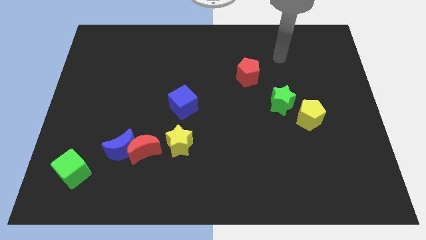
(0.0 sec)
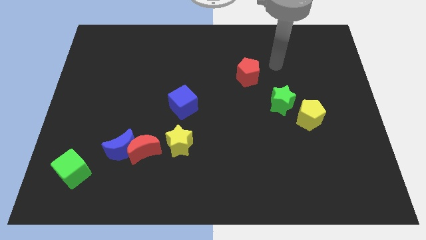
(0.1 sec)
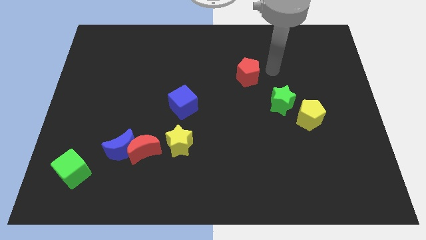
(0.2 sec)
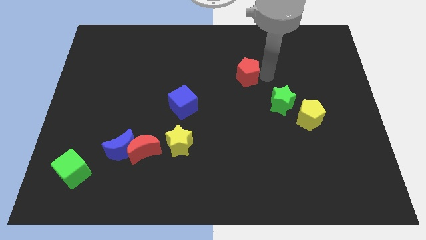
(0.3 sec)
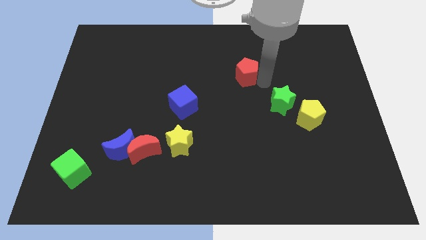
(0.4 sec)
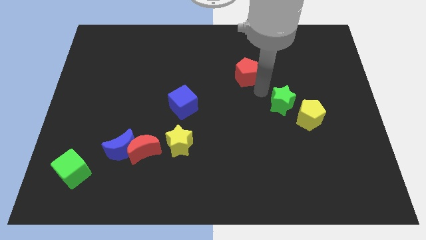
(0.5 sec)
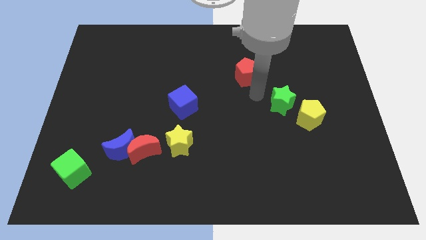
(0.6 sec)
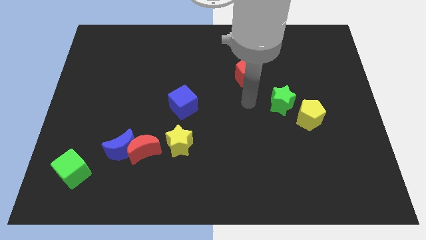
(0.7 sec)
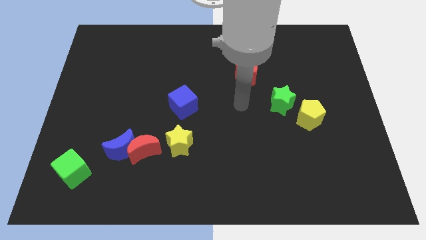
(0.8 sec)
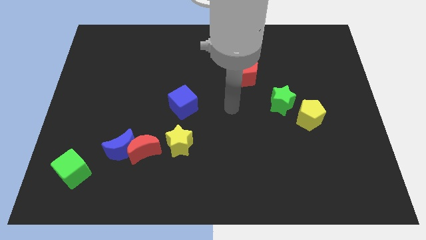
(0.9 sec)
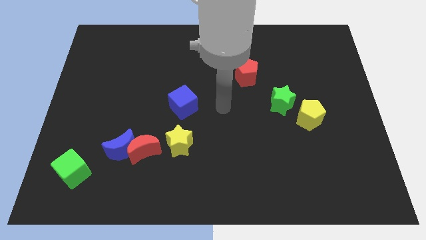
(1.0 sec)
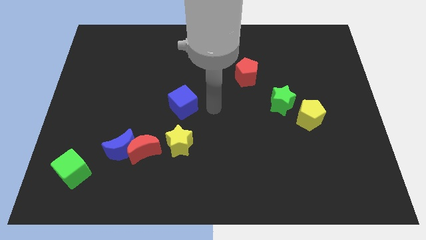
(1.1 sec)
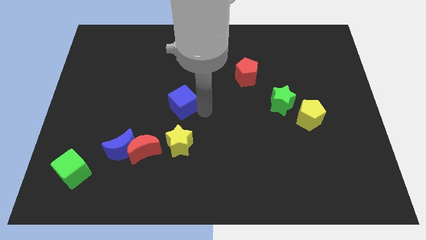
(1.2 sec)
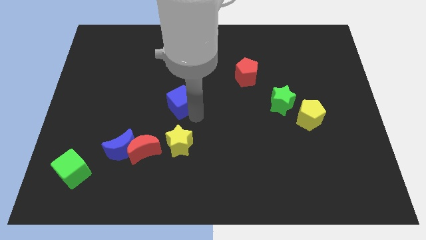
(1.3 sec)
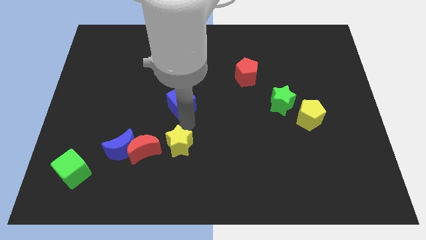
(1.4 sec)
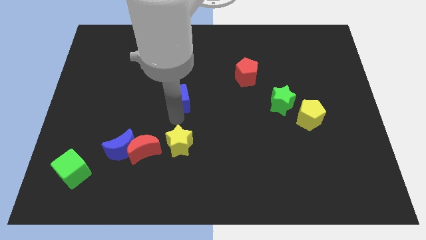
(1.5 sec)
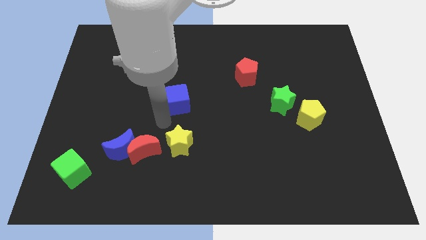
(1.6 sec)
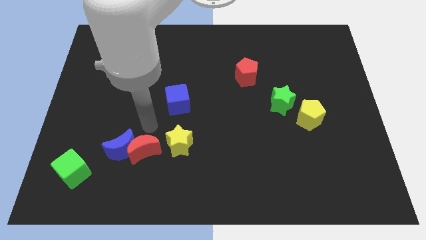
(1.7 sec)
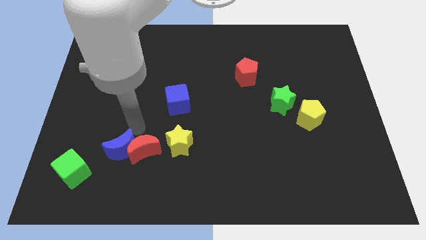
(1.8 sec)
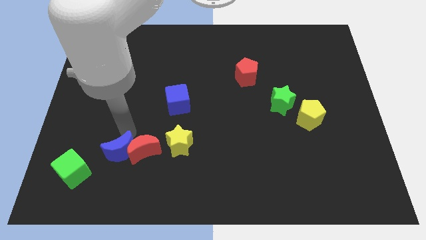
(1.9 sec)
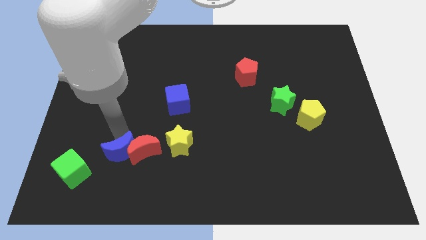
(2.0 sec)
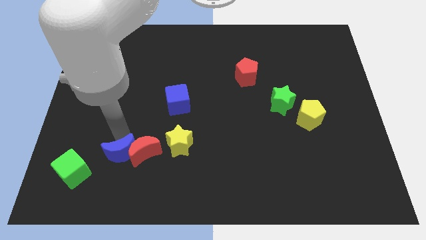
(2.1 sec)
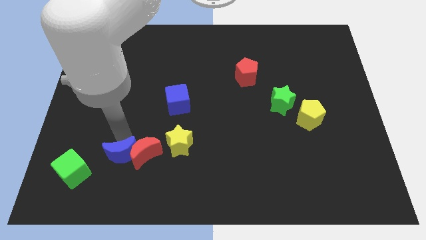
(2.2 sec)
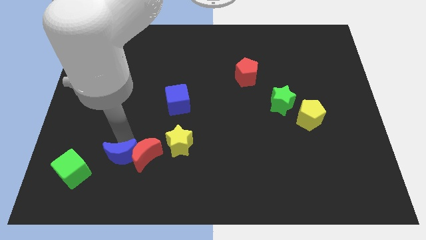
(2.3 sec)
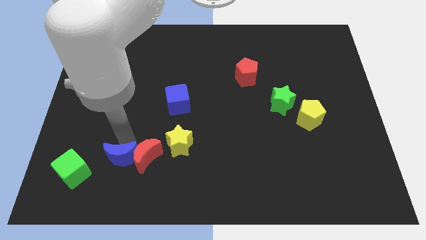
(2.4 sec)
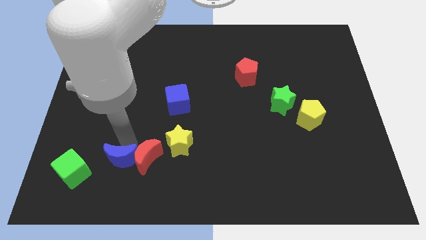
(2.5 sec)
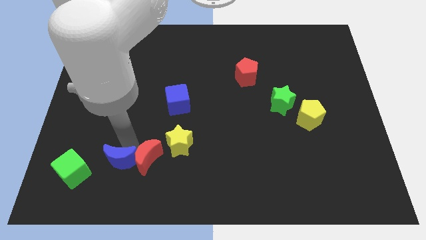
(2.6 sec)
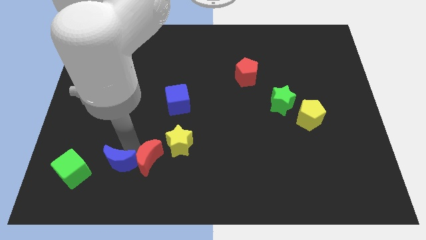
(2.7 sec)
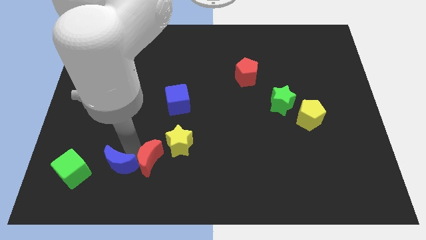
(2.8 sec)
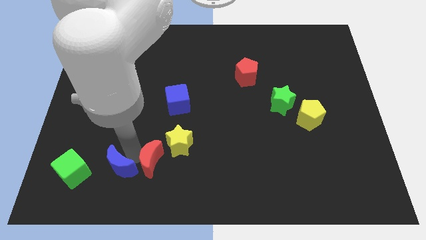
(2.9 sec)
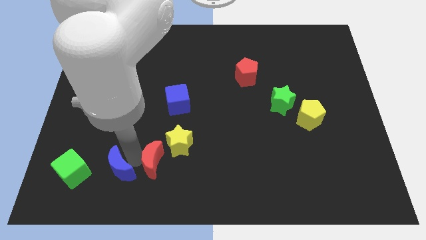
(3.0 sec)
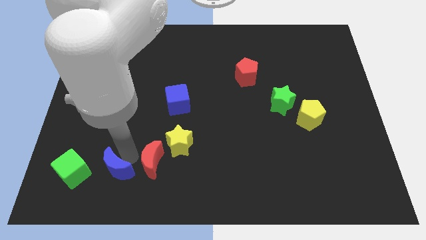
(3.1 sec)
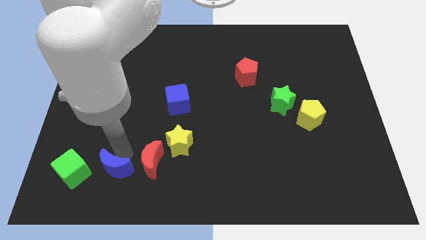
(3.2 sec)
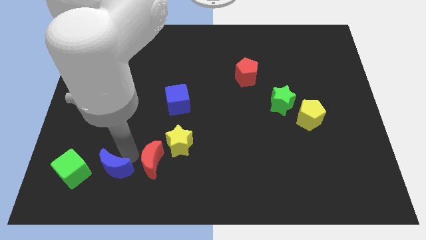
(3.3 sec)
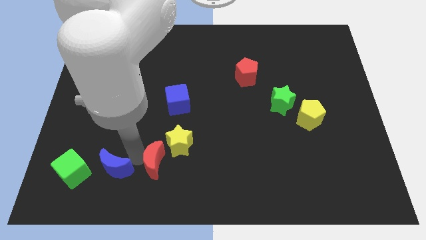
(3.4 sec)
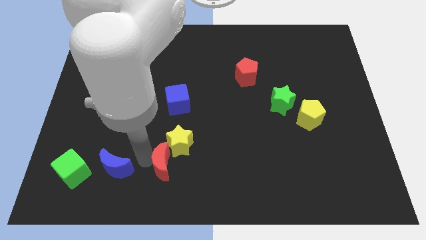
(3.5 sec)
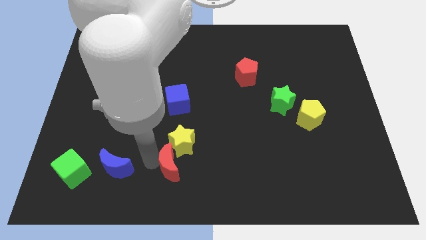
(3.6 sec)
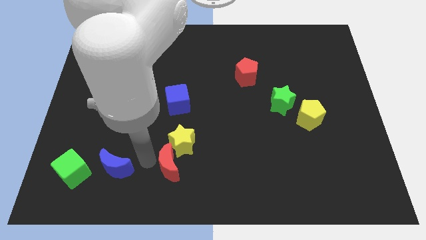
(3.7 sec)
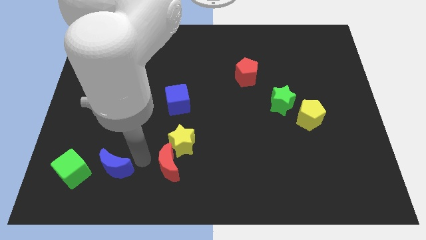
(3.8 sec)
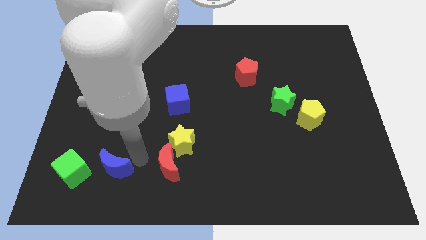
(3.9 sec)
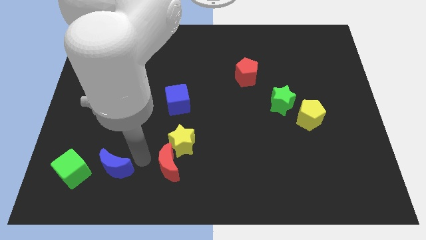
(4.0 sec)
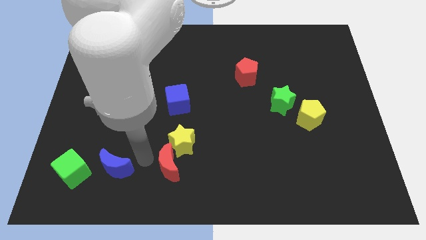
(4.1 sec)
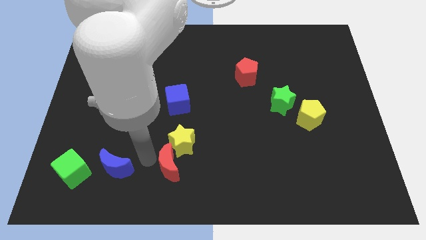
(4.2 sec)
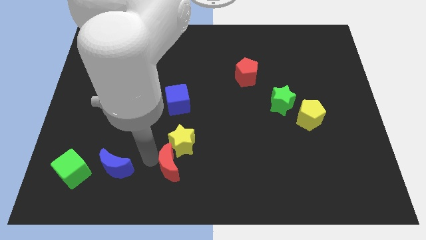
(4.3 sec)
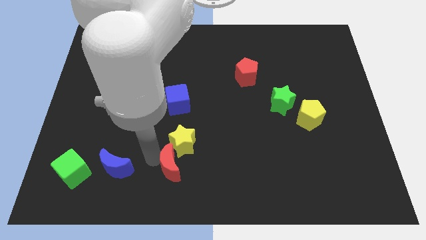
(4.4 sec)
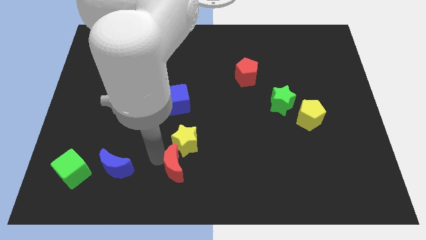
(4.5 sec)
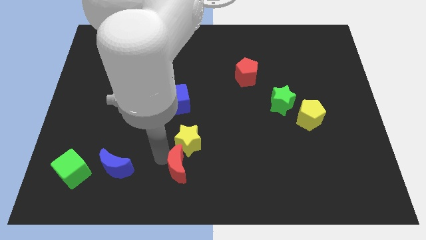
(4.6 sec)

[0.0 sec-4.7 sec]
slightly slide the red moon right

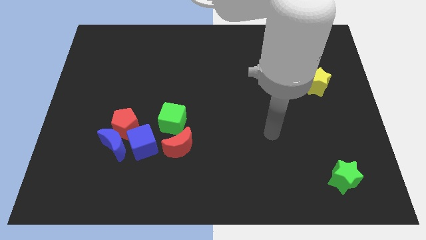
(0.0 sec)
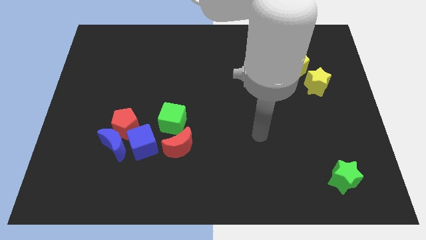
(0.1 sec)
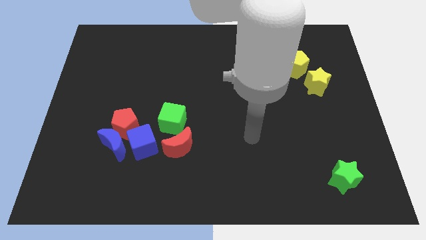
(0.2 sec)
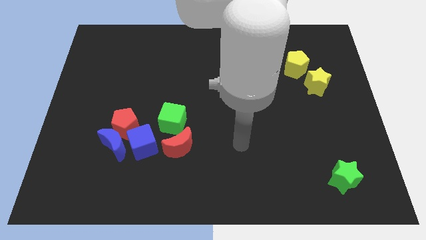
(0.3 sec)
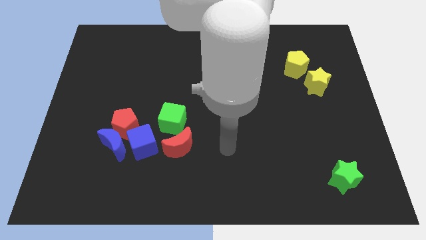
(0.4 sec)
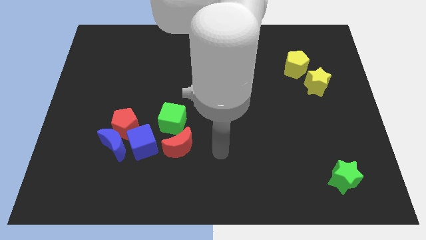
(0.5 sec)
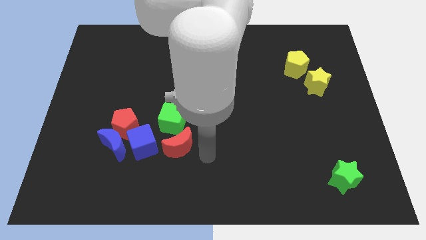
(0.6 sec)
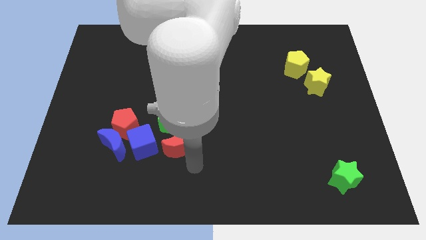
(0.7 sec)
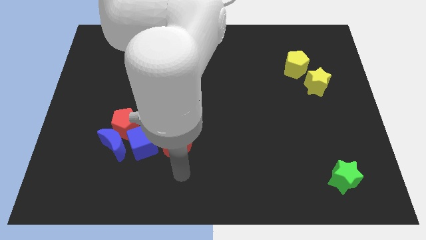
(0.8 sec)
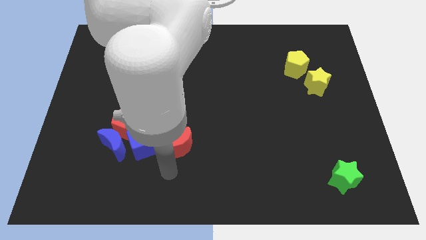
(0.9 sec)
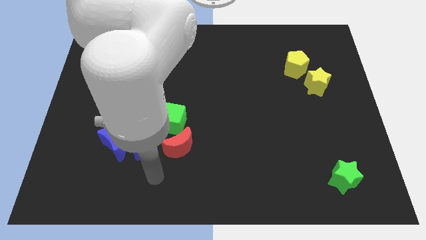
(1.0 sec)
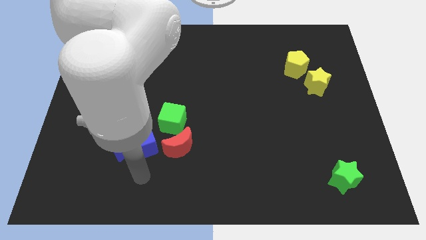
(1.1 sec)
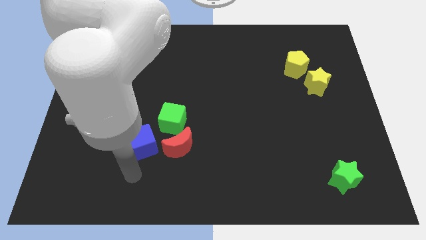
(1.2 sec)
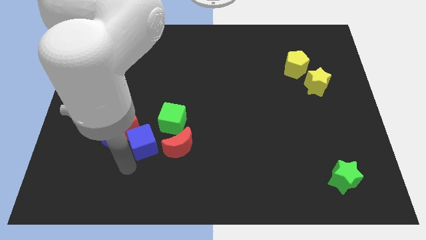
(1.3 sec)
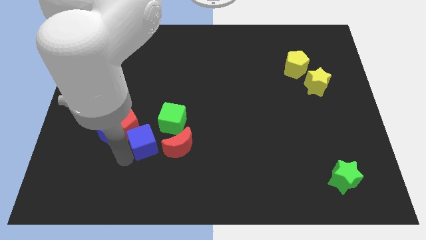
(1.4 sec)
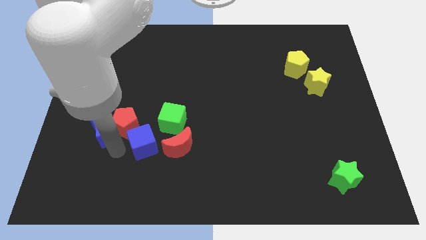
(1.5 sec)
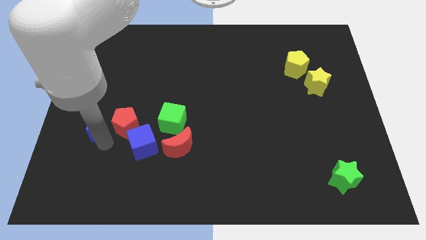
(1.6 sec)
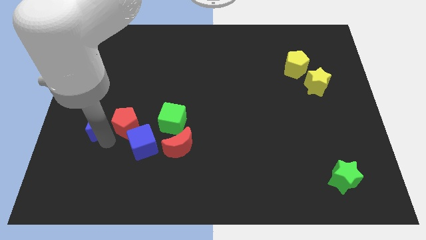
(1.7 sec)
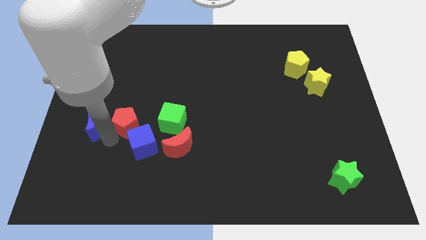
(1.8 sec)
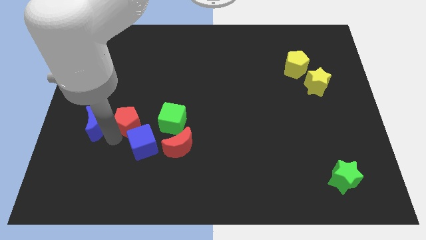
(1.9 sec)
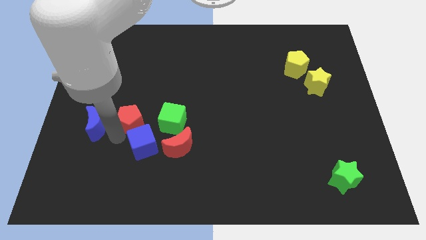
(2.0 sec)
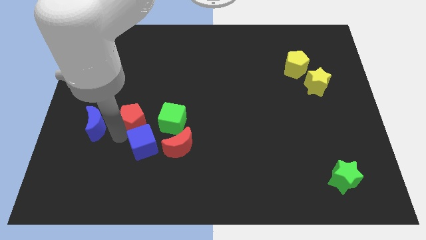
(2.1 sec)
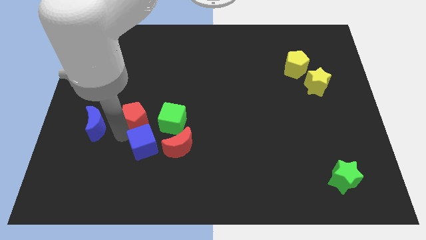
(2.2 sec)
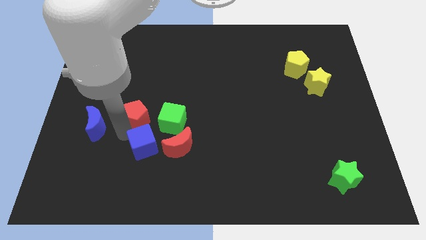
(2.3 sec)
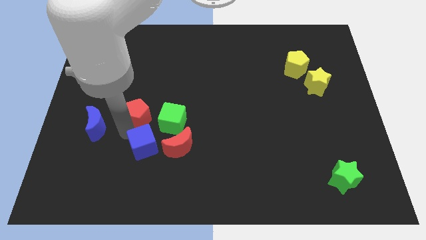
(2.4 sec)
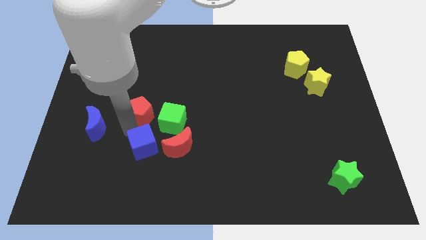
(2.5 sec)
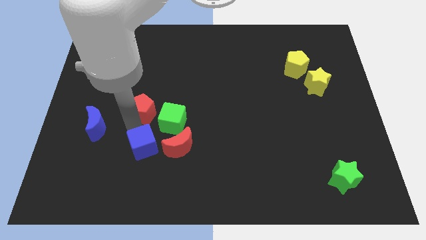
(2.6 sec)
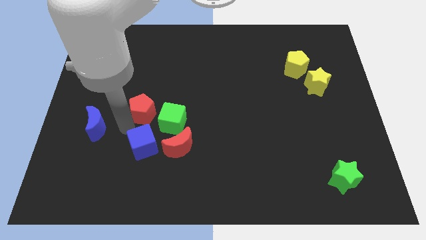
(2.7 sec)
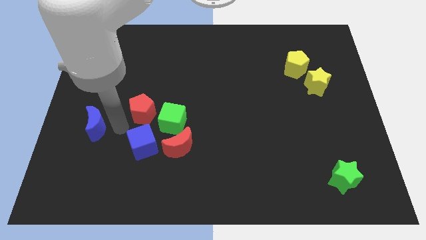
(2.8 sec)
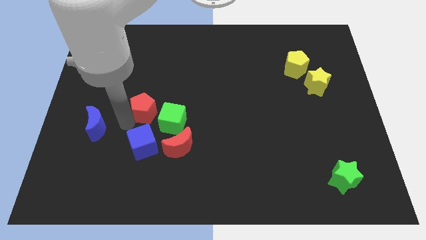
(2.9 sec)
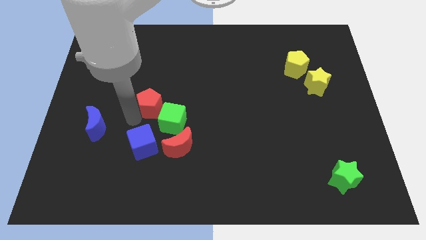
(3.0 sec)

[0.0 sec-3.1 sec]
push the red pentagon upwards and then to the right a little bit
